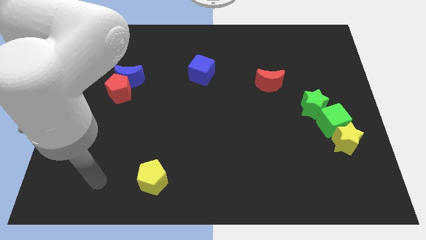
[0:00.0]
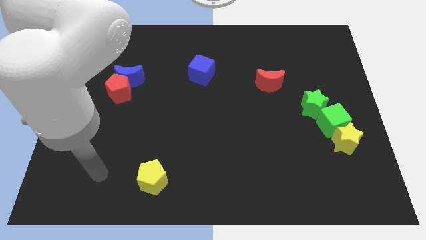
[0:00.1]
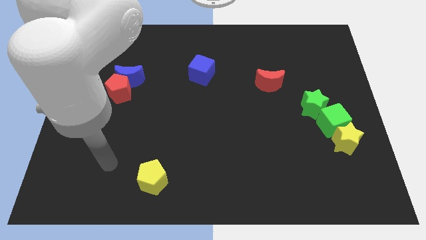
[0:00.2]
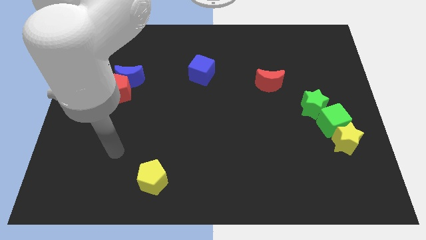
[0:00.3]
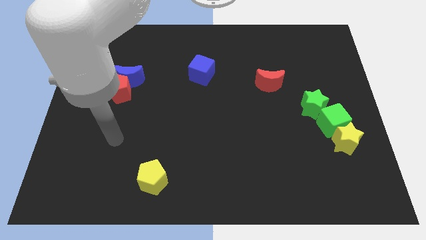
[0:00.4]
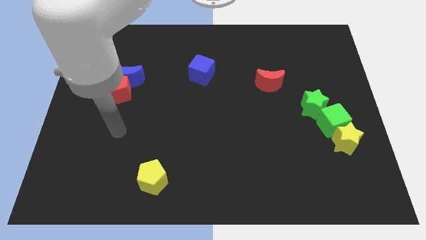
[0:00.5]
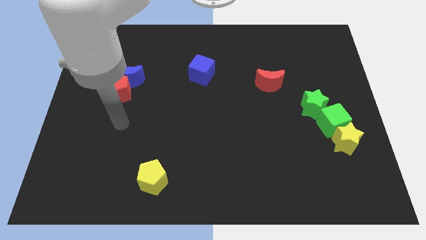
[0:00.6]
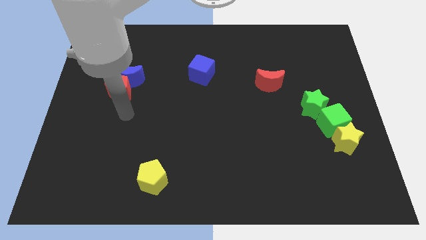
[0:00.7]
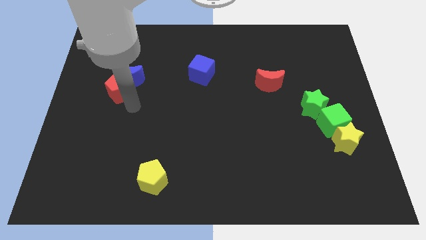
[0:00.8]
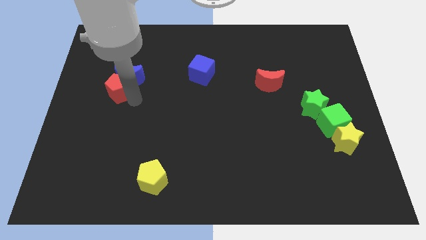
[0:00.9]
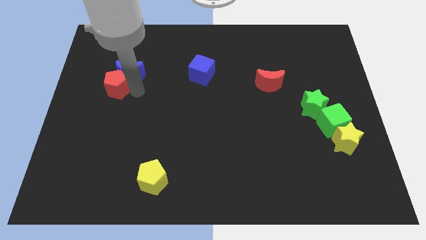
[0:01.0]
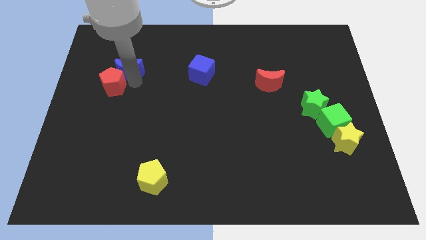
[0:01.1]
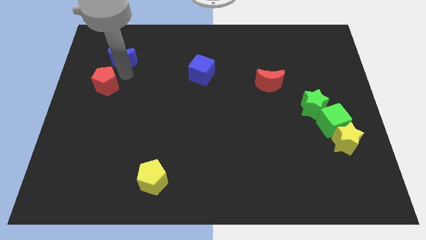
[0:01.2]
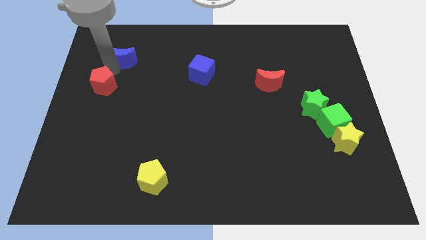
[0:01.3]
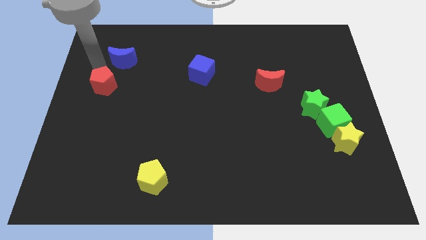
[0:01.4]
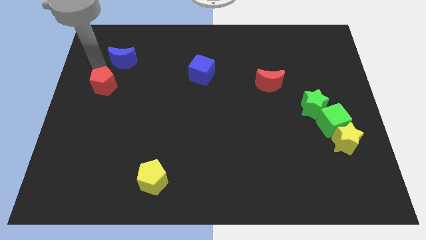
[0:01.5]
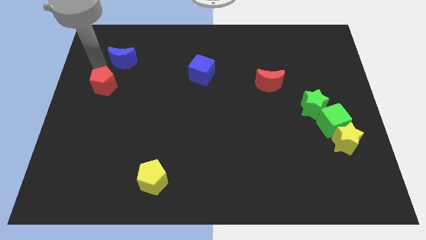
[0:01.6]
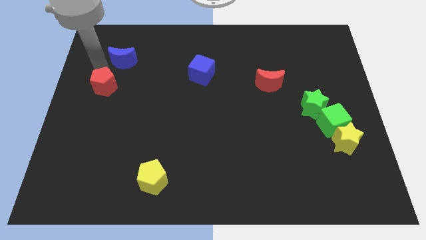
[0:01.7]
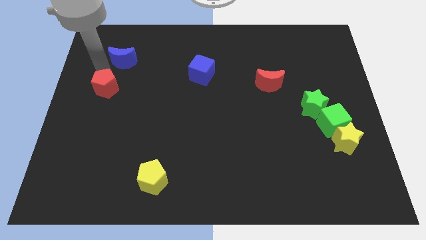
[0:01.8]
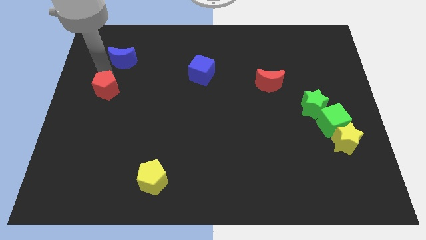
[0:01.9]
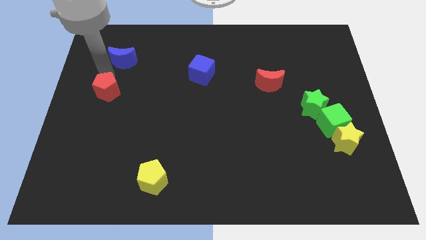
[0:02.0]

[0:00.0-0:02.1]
separate the red pentagon from the blue moon

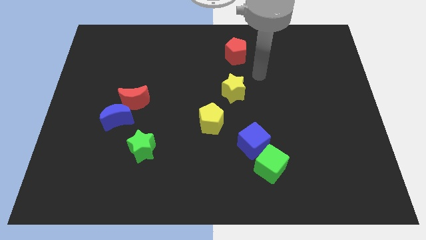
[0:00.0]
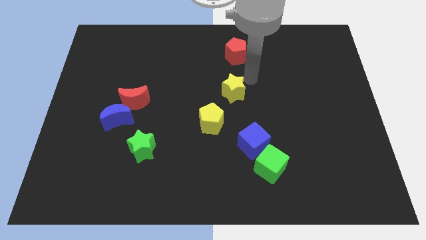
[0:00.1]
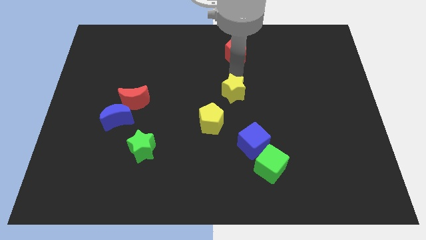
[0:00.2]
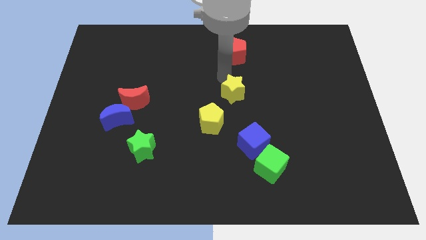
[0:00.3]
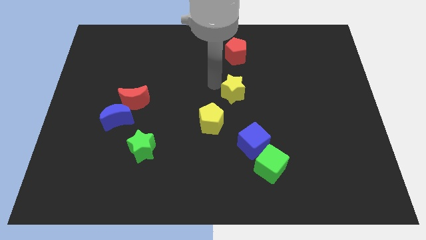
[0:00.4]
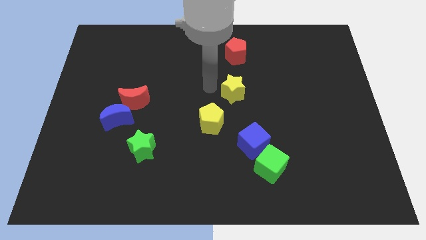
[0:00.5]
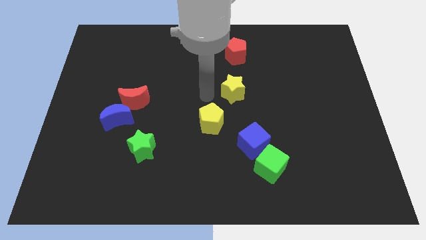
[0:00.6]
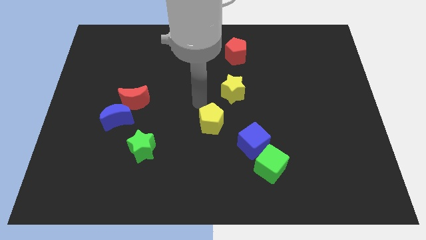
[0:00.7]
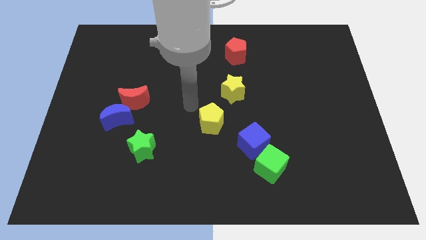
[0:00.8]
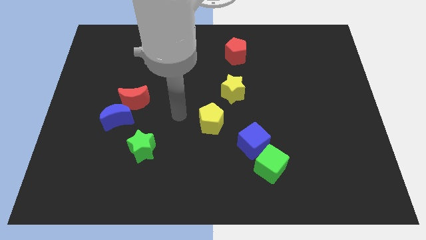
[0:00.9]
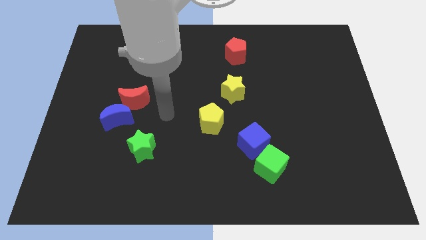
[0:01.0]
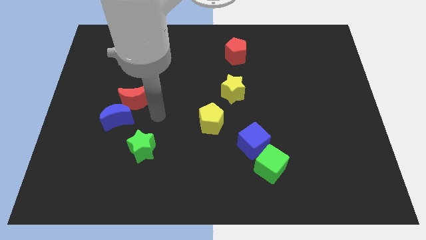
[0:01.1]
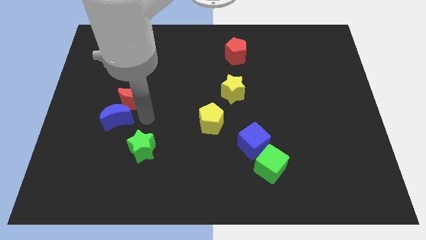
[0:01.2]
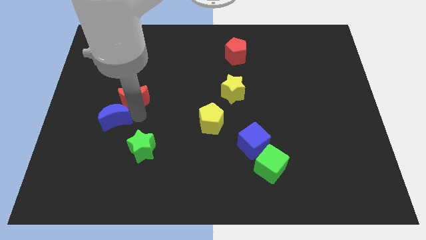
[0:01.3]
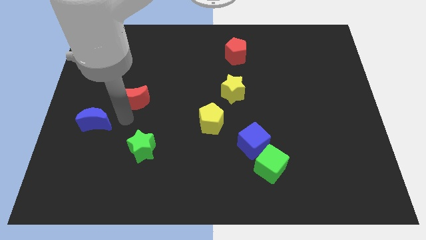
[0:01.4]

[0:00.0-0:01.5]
pull the red moon apart from the blue moon

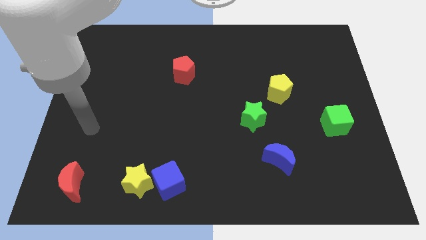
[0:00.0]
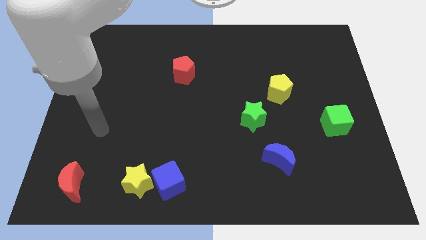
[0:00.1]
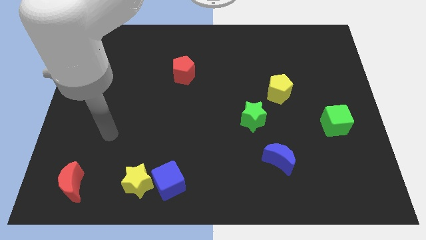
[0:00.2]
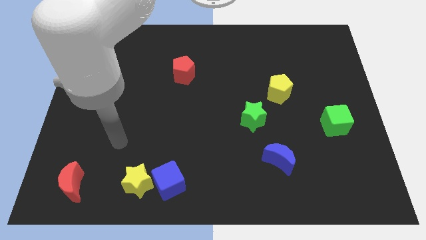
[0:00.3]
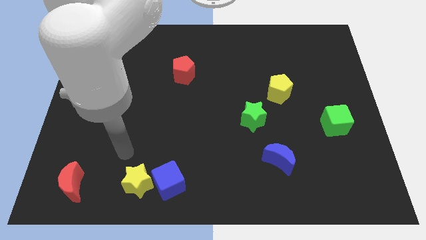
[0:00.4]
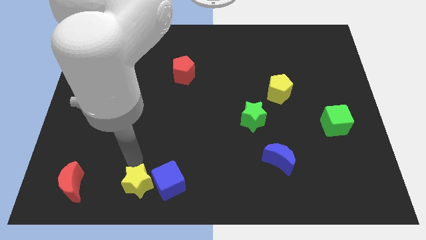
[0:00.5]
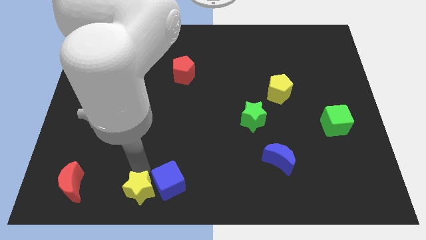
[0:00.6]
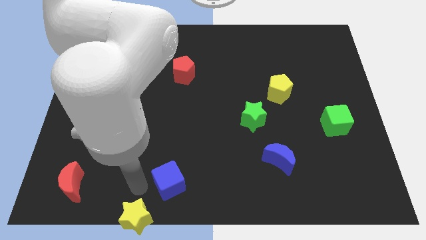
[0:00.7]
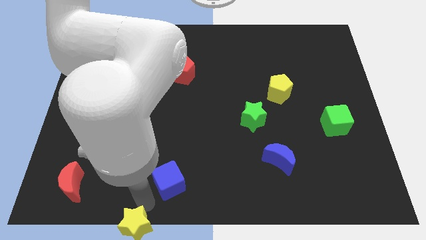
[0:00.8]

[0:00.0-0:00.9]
move the blue cube away from the yellow star

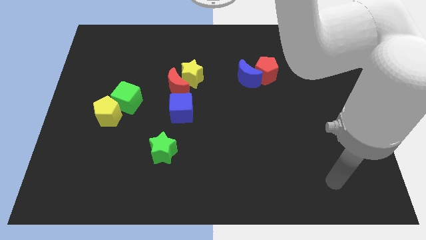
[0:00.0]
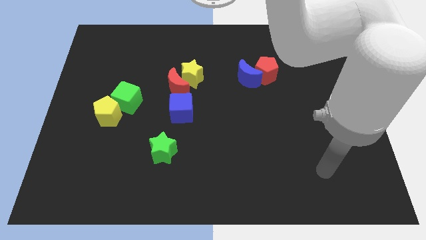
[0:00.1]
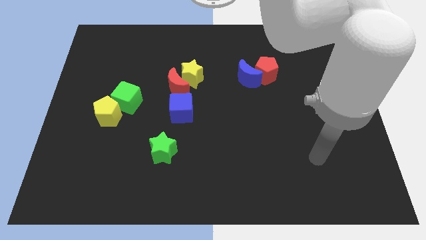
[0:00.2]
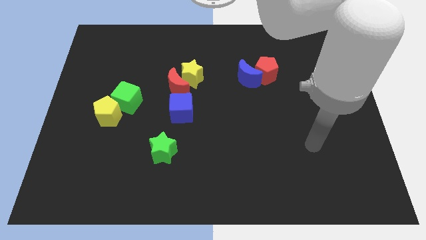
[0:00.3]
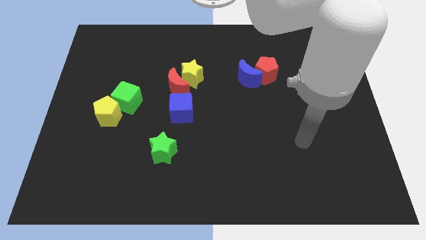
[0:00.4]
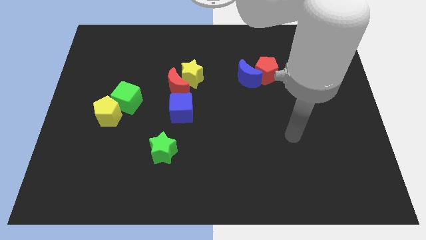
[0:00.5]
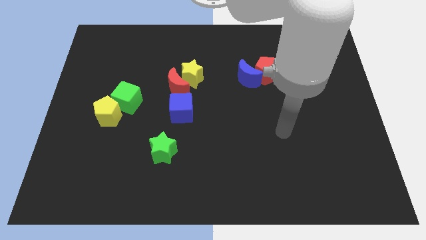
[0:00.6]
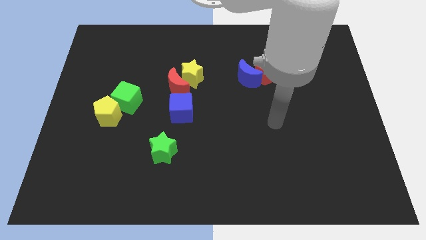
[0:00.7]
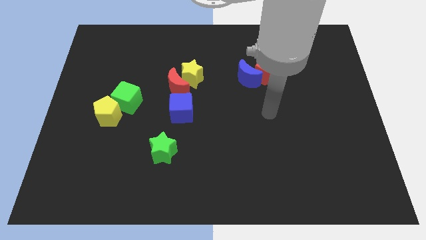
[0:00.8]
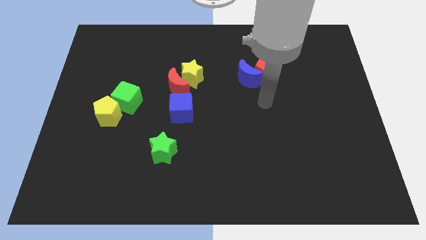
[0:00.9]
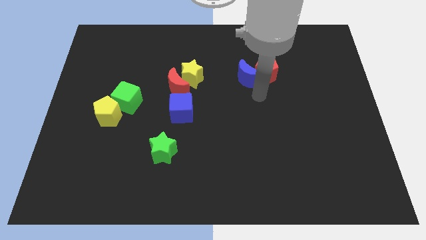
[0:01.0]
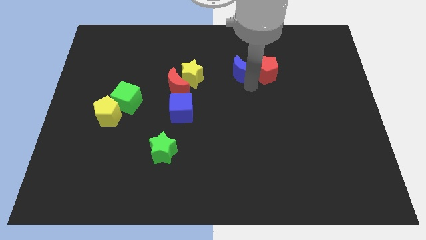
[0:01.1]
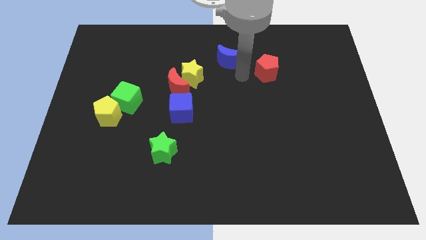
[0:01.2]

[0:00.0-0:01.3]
pull the red pentagon apart from the blue moon

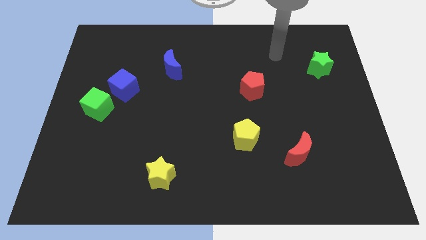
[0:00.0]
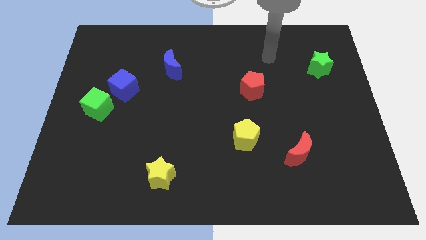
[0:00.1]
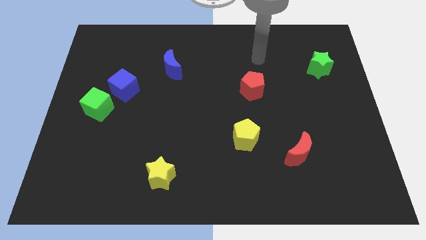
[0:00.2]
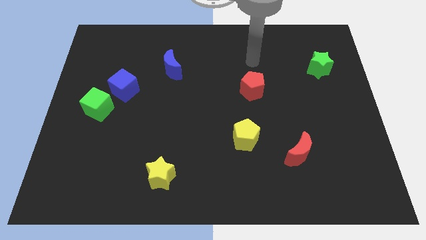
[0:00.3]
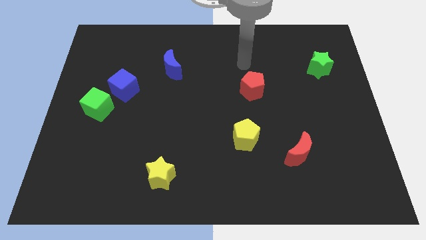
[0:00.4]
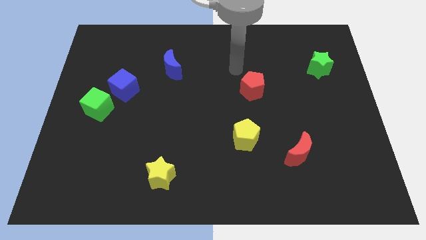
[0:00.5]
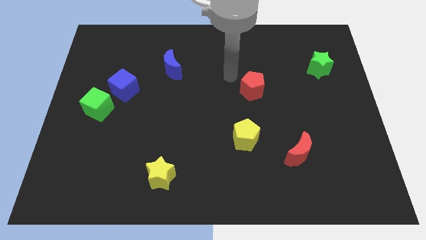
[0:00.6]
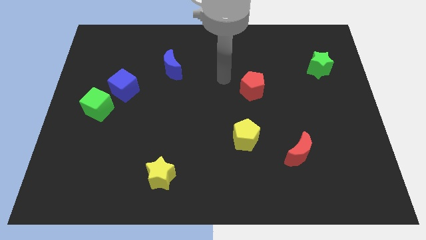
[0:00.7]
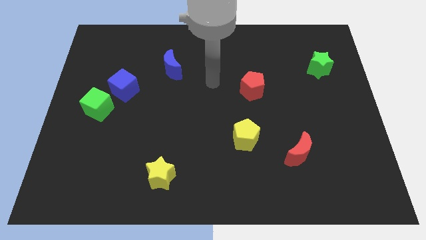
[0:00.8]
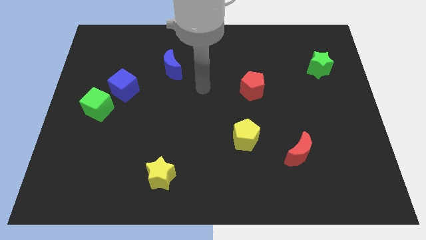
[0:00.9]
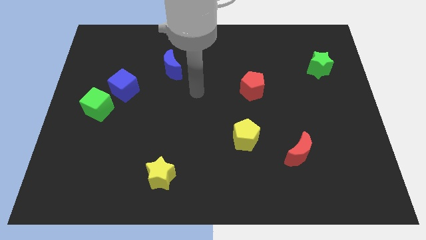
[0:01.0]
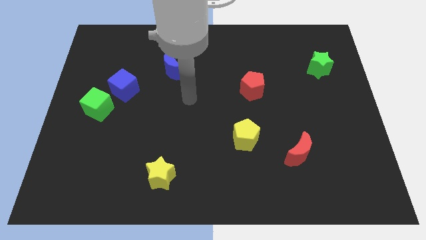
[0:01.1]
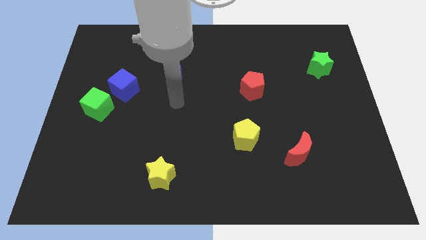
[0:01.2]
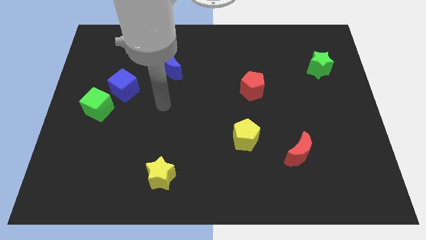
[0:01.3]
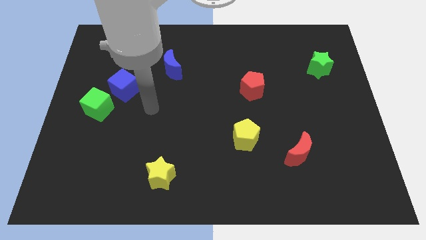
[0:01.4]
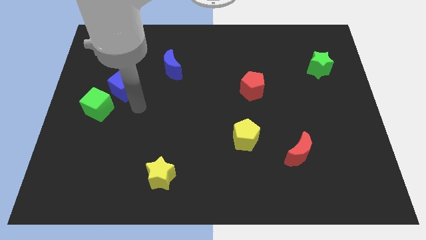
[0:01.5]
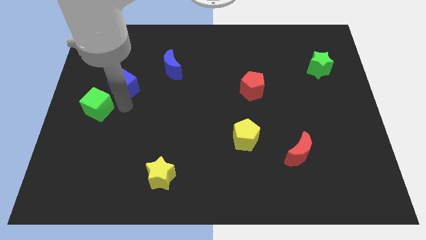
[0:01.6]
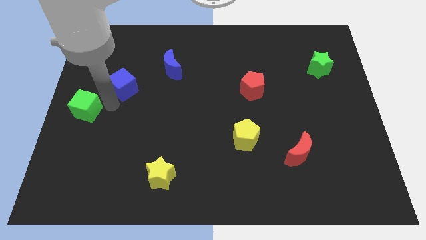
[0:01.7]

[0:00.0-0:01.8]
move the blue cube away from the green cube

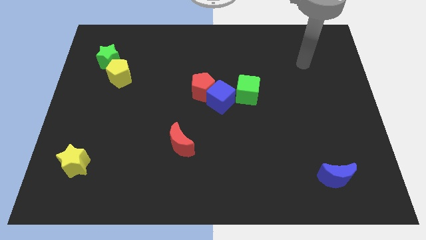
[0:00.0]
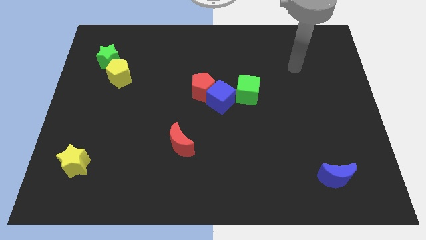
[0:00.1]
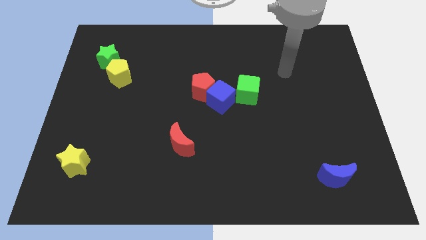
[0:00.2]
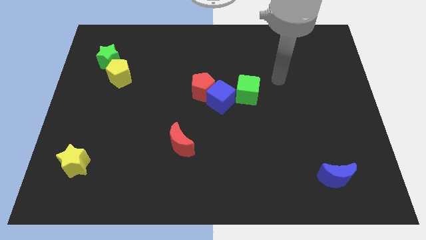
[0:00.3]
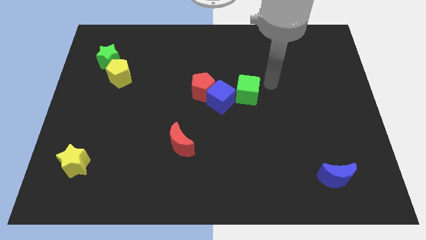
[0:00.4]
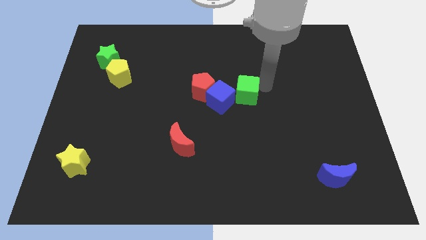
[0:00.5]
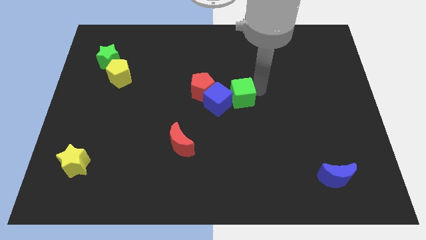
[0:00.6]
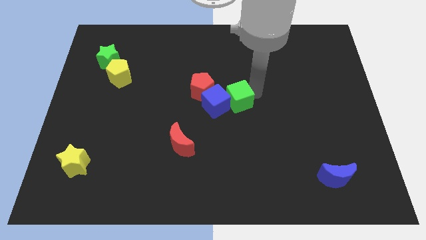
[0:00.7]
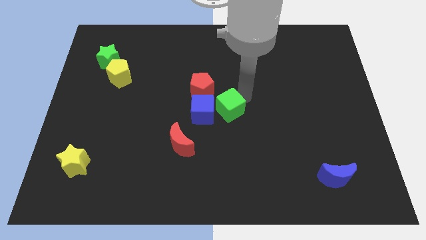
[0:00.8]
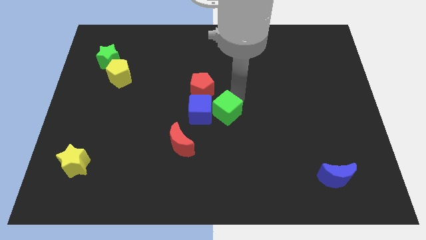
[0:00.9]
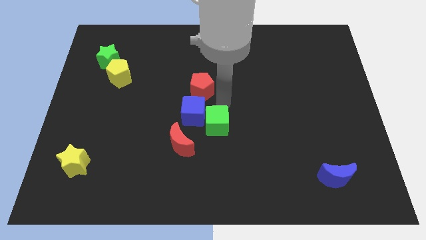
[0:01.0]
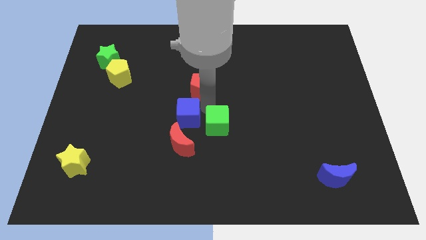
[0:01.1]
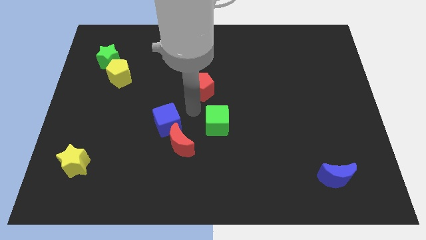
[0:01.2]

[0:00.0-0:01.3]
pull the red pentagon apart from the blue cube

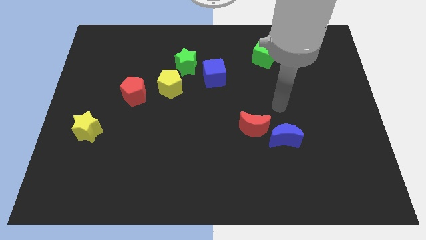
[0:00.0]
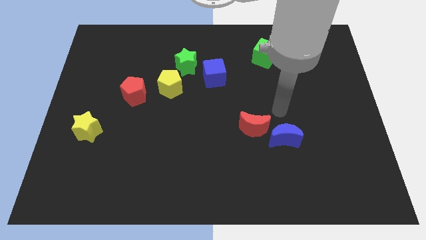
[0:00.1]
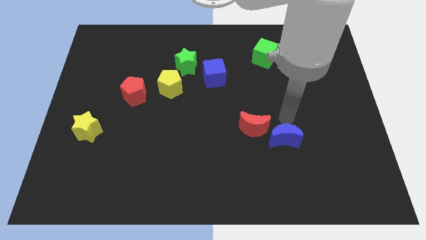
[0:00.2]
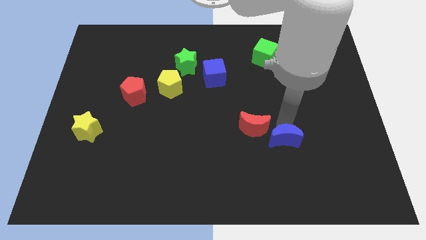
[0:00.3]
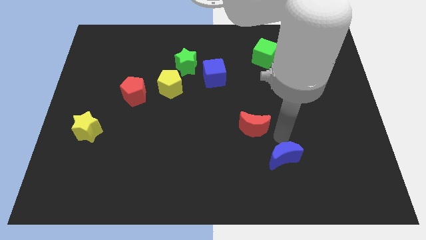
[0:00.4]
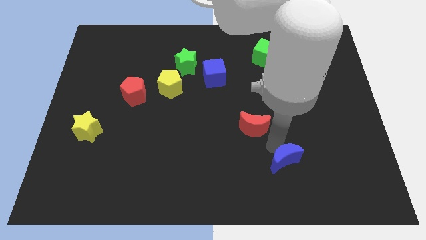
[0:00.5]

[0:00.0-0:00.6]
separate the red moon from the blue moon

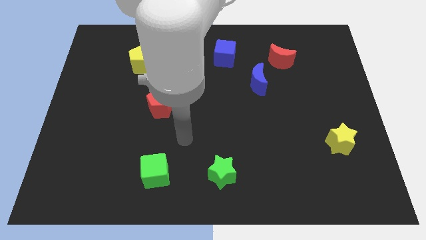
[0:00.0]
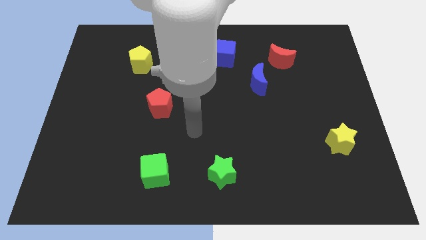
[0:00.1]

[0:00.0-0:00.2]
move the red moon away from the blue moon
